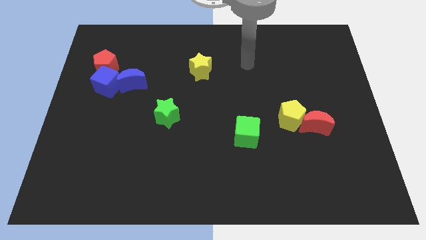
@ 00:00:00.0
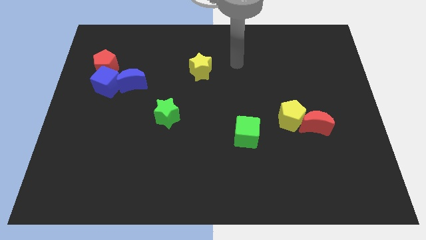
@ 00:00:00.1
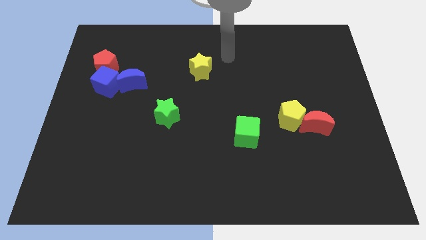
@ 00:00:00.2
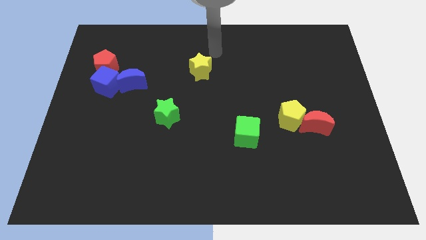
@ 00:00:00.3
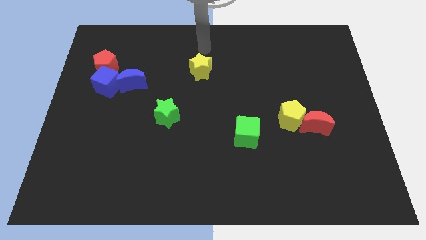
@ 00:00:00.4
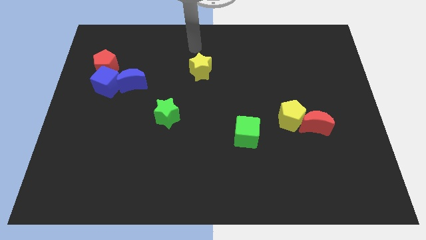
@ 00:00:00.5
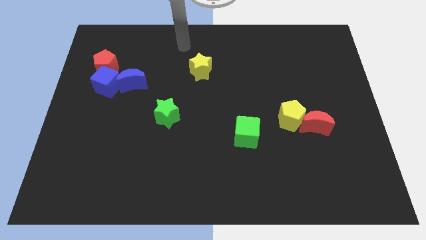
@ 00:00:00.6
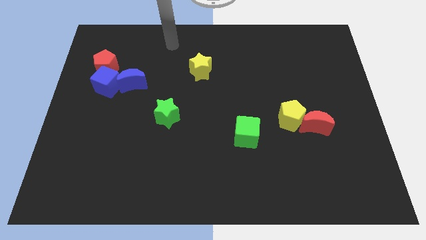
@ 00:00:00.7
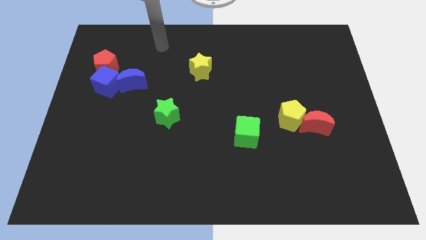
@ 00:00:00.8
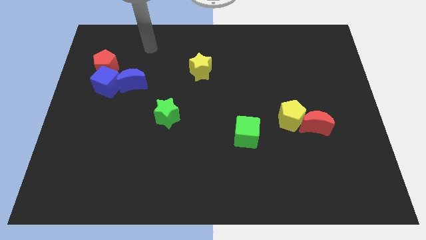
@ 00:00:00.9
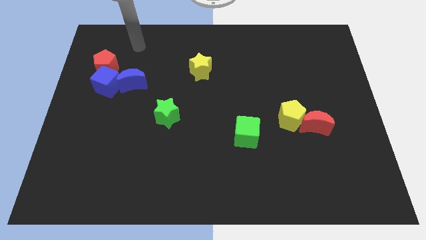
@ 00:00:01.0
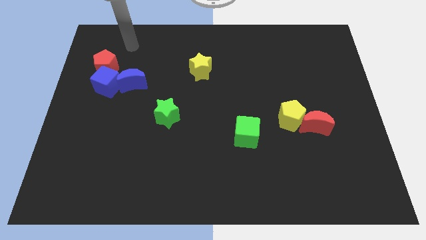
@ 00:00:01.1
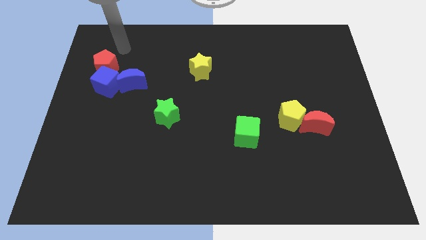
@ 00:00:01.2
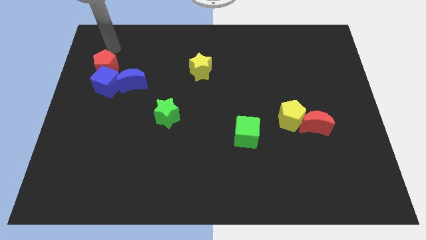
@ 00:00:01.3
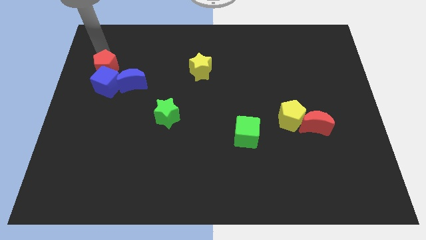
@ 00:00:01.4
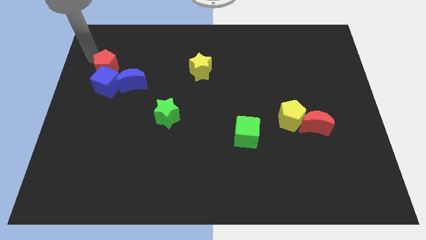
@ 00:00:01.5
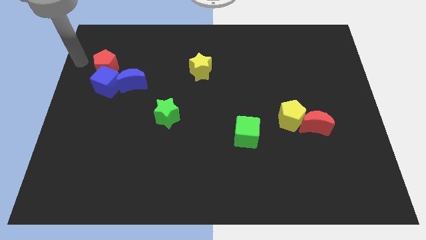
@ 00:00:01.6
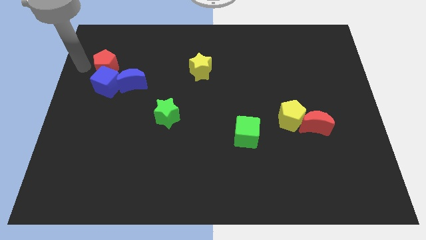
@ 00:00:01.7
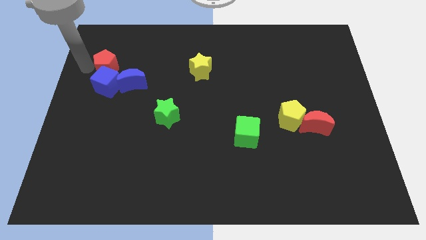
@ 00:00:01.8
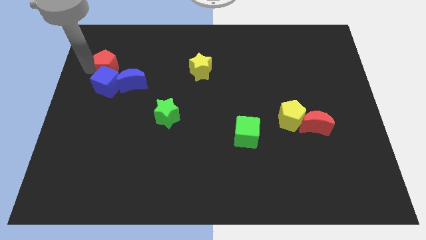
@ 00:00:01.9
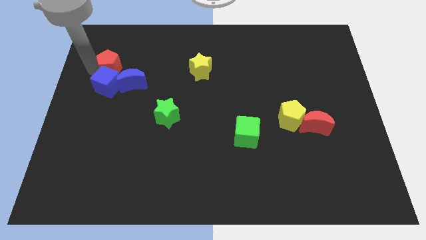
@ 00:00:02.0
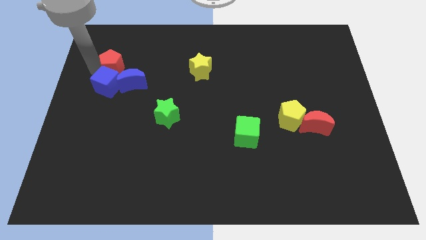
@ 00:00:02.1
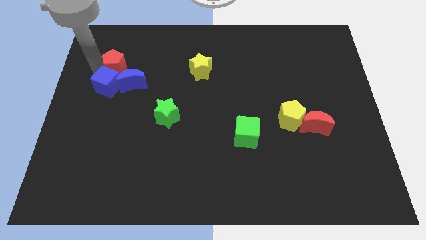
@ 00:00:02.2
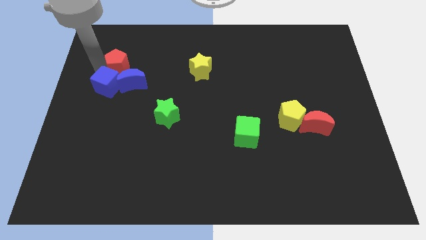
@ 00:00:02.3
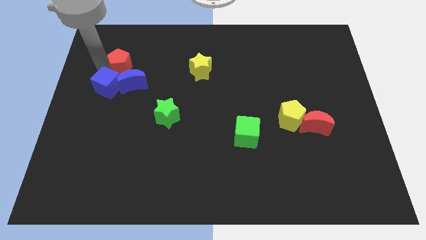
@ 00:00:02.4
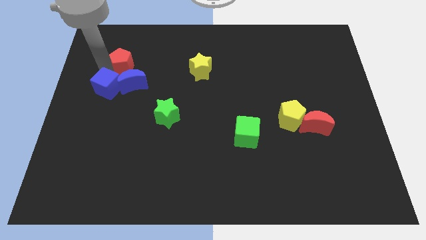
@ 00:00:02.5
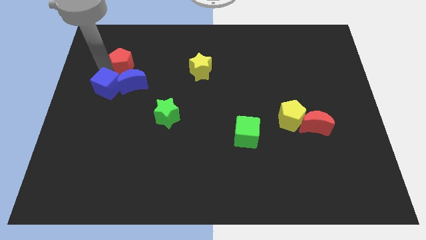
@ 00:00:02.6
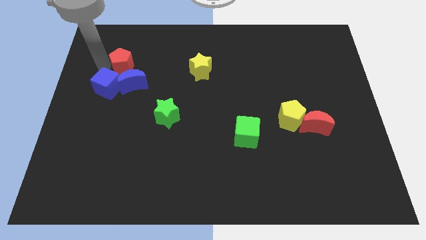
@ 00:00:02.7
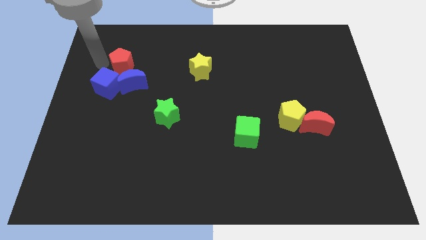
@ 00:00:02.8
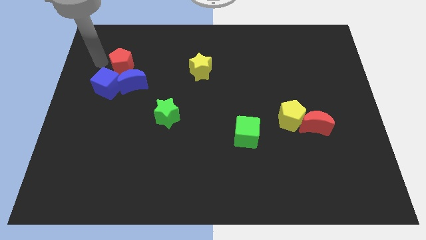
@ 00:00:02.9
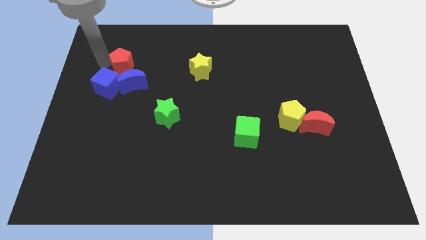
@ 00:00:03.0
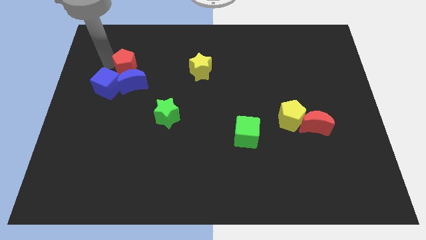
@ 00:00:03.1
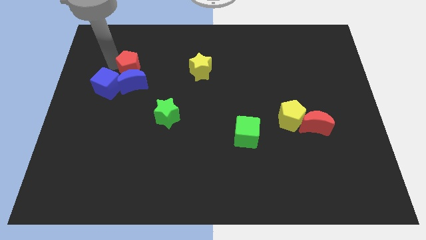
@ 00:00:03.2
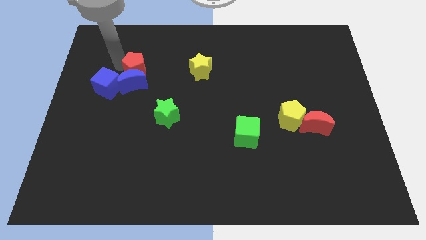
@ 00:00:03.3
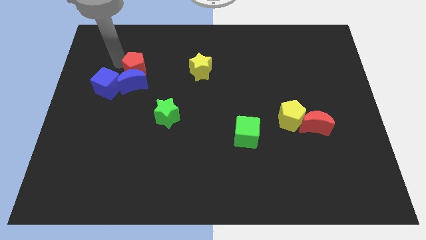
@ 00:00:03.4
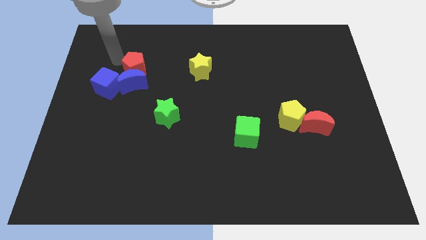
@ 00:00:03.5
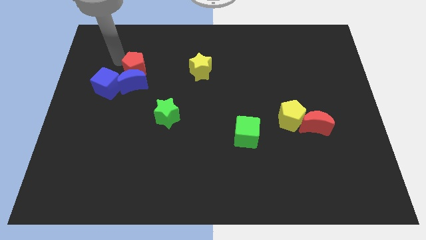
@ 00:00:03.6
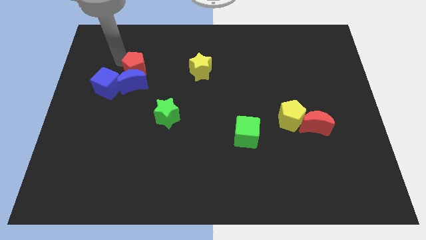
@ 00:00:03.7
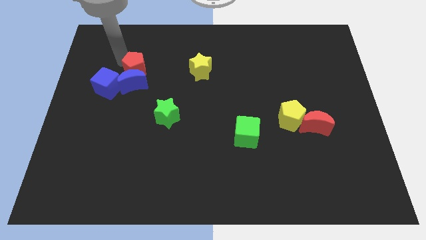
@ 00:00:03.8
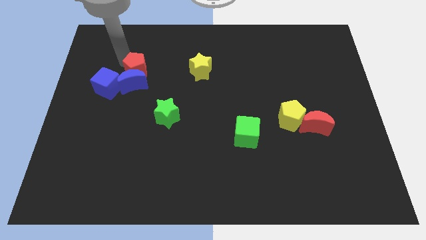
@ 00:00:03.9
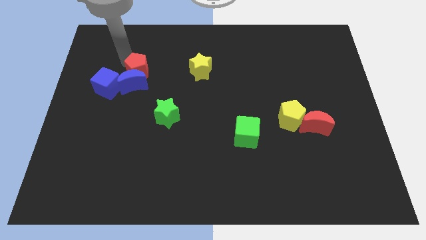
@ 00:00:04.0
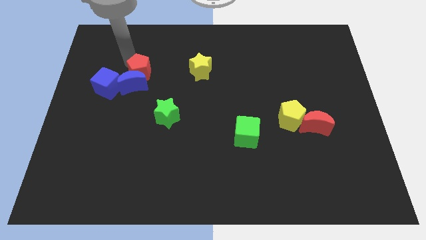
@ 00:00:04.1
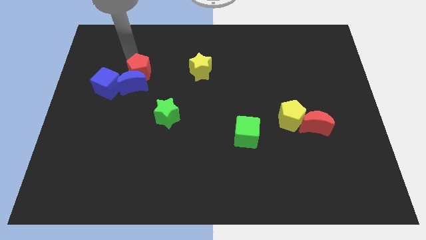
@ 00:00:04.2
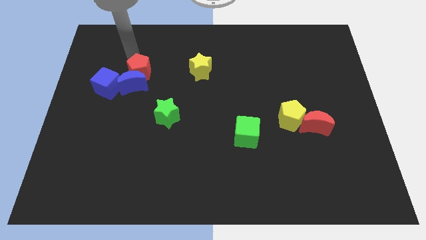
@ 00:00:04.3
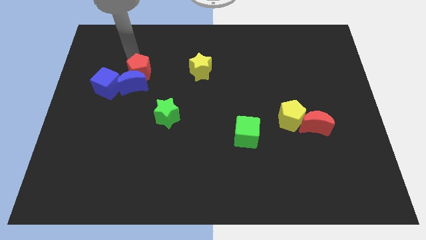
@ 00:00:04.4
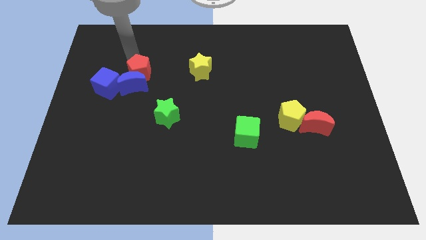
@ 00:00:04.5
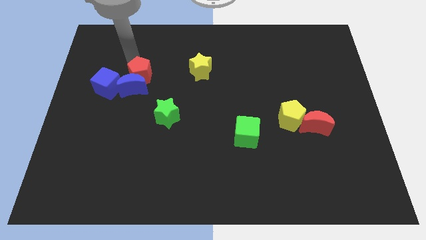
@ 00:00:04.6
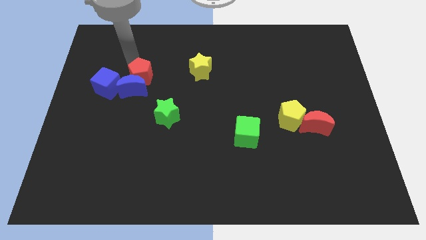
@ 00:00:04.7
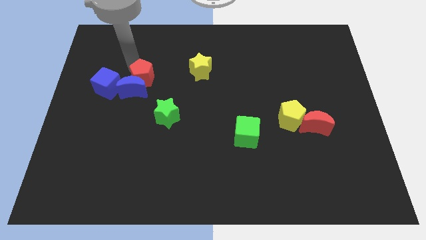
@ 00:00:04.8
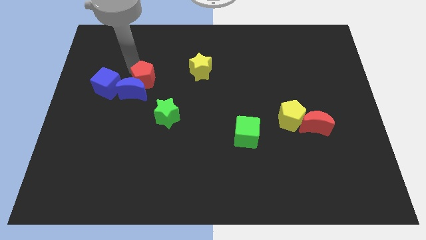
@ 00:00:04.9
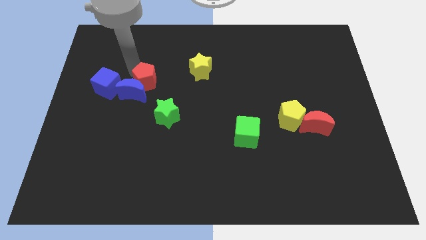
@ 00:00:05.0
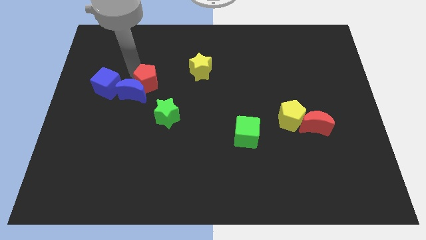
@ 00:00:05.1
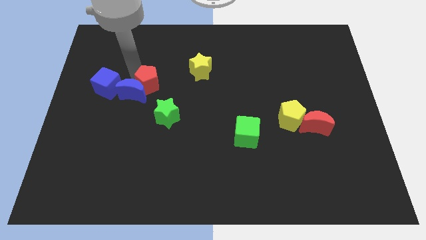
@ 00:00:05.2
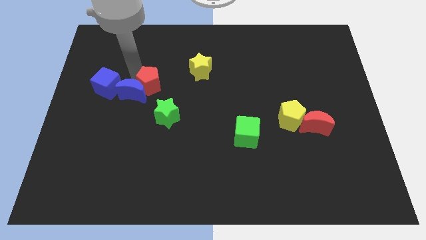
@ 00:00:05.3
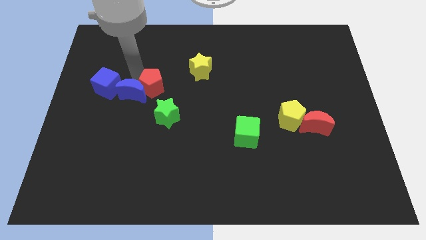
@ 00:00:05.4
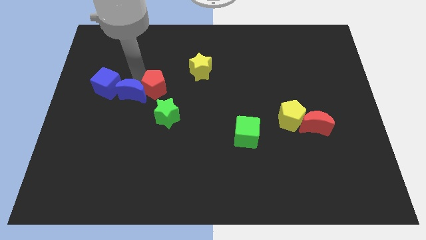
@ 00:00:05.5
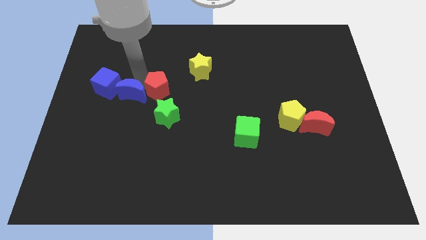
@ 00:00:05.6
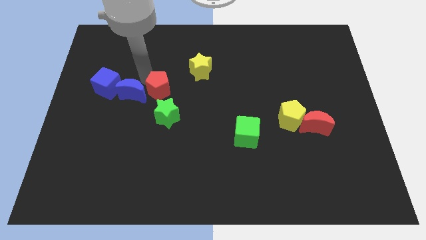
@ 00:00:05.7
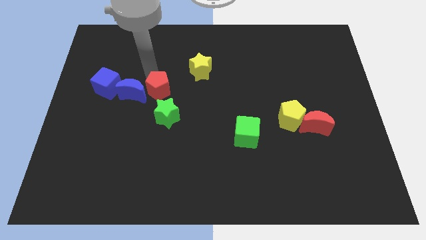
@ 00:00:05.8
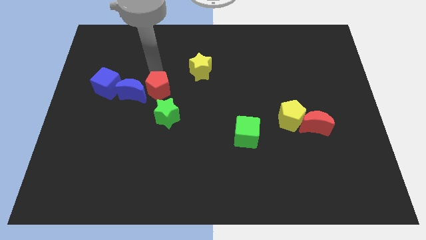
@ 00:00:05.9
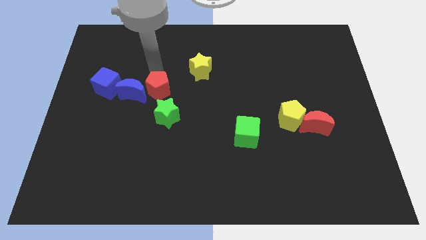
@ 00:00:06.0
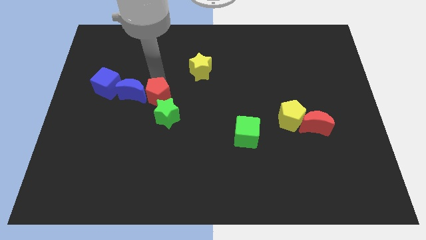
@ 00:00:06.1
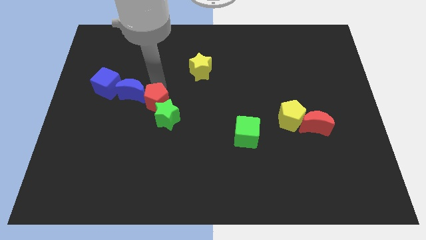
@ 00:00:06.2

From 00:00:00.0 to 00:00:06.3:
move the red pentagon close to the green star

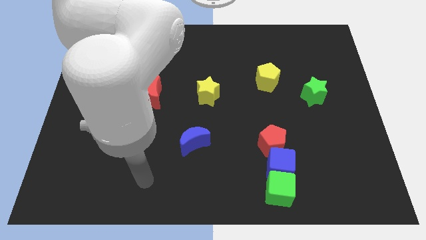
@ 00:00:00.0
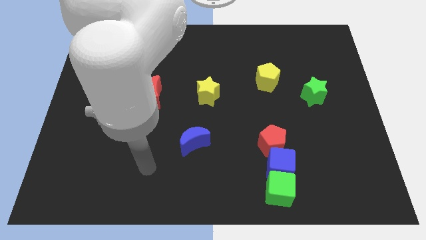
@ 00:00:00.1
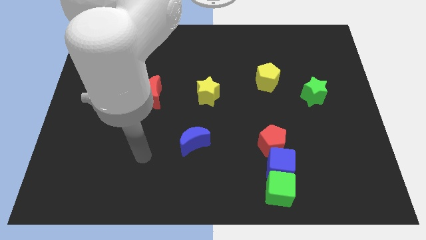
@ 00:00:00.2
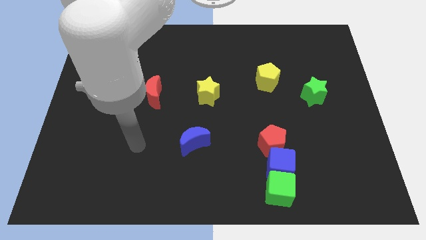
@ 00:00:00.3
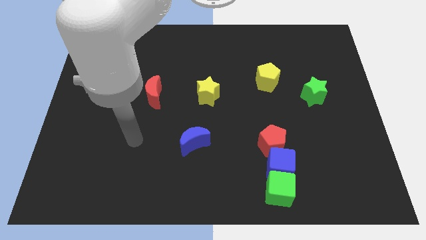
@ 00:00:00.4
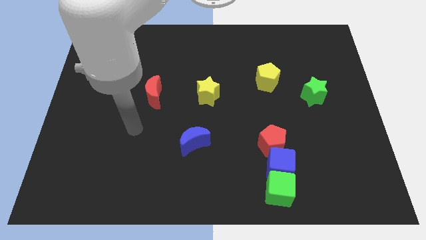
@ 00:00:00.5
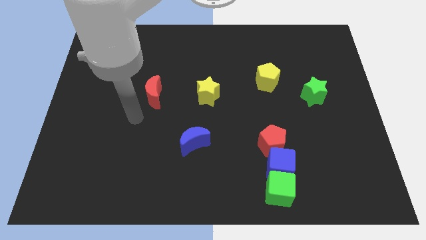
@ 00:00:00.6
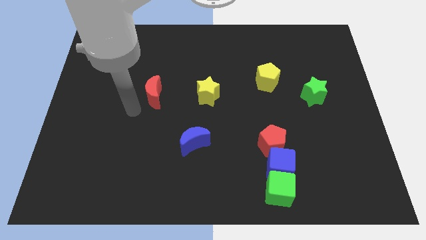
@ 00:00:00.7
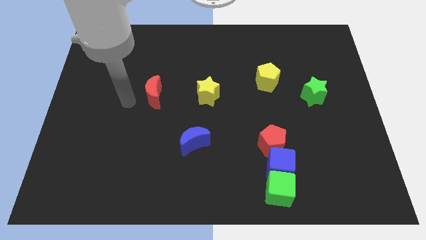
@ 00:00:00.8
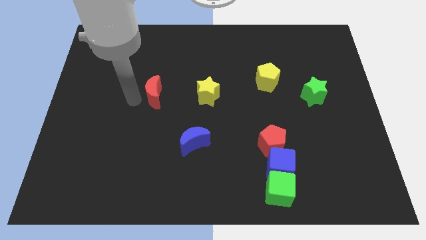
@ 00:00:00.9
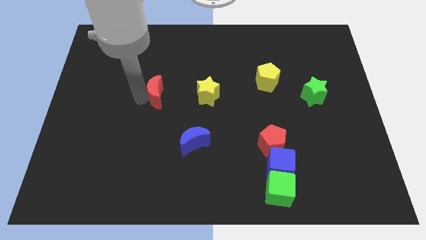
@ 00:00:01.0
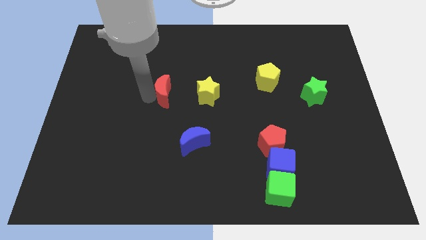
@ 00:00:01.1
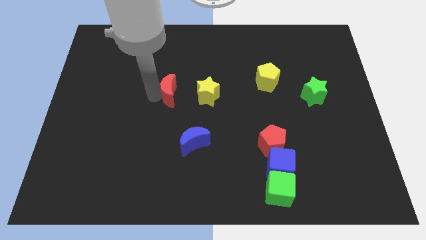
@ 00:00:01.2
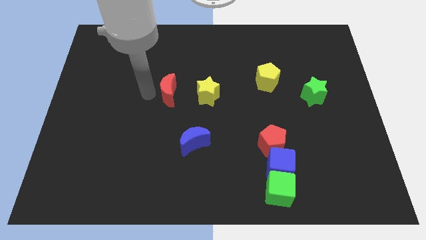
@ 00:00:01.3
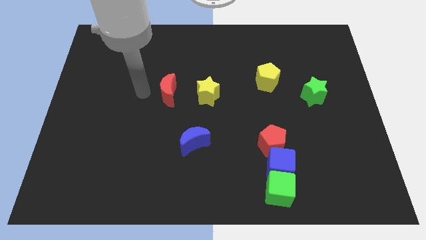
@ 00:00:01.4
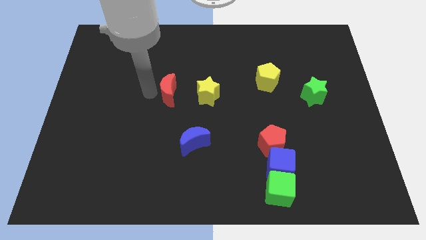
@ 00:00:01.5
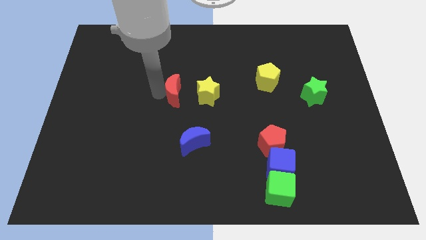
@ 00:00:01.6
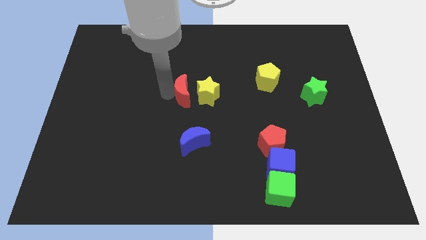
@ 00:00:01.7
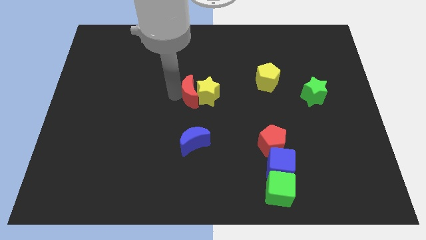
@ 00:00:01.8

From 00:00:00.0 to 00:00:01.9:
slide the red moon towards the yellow star
